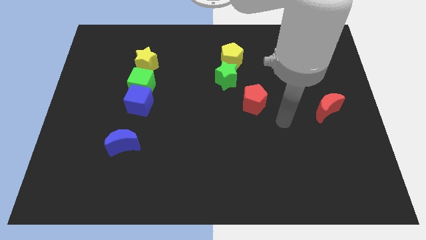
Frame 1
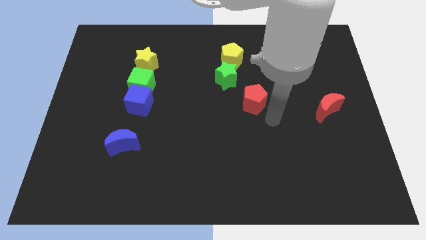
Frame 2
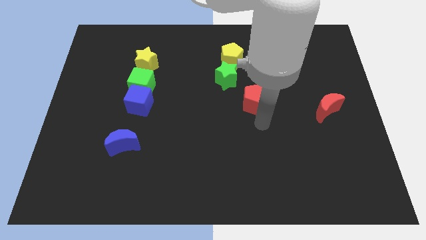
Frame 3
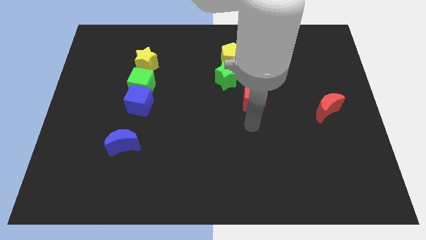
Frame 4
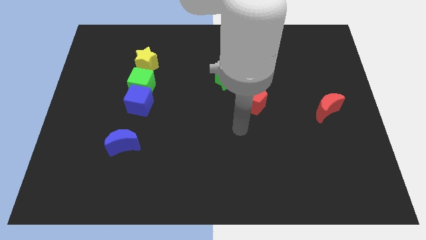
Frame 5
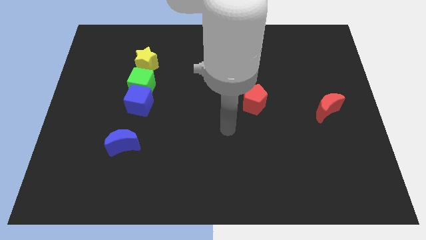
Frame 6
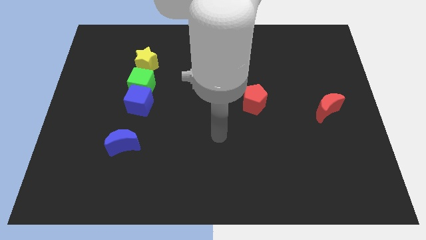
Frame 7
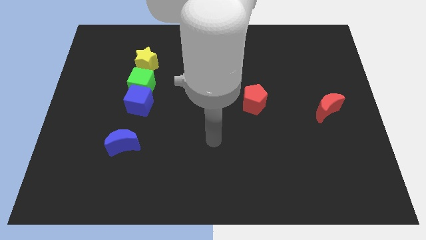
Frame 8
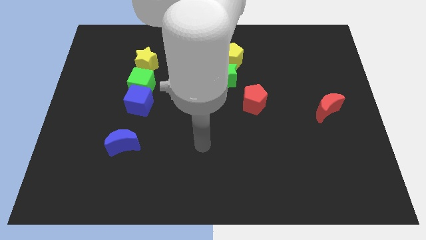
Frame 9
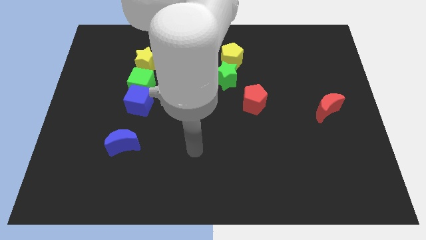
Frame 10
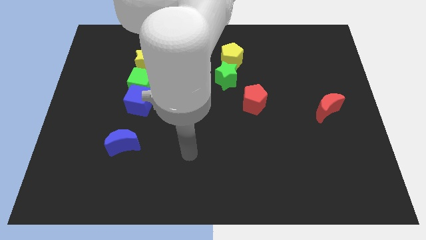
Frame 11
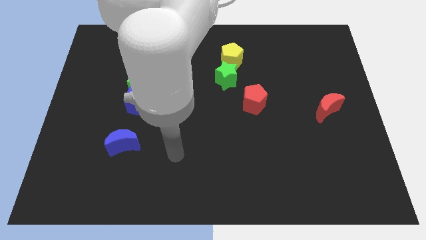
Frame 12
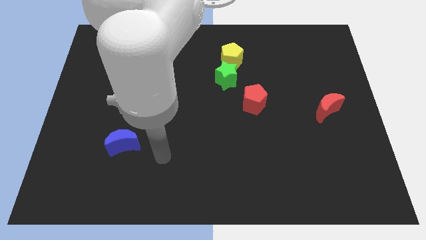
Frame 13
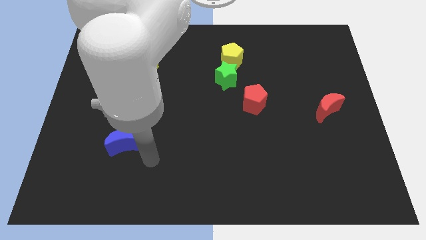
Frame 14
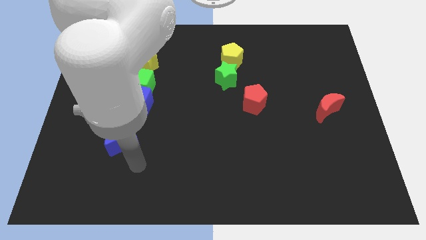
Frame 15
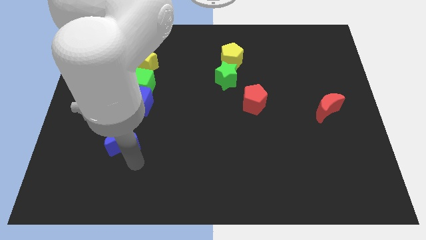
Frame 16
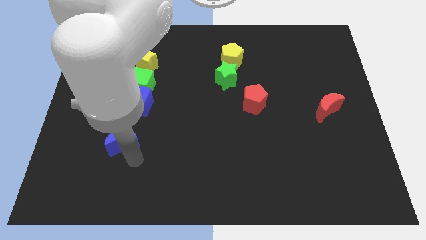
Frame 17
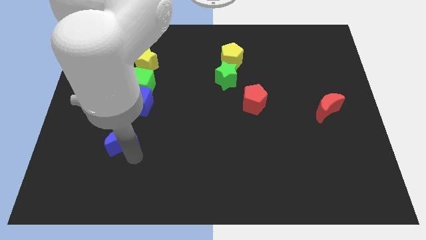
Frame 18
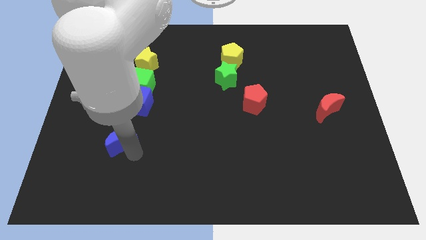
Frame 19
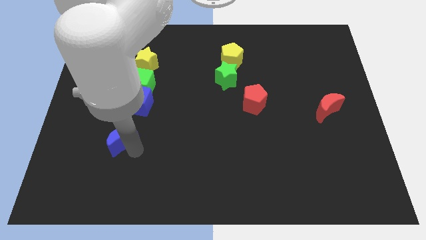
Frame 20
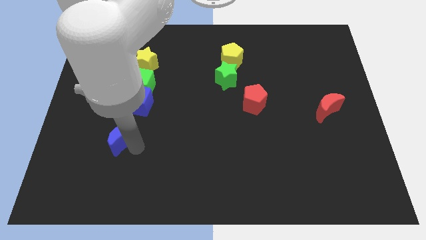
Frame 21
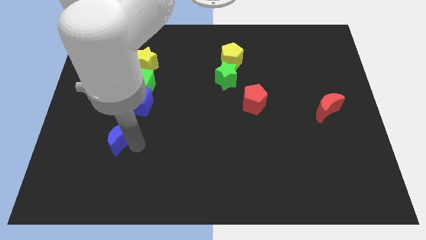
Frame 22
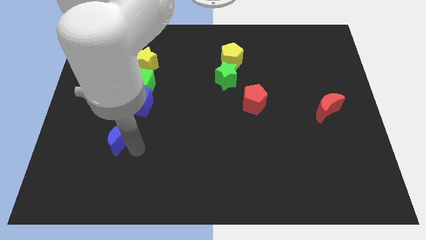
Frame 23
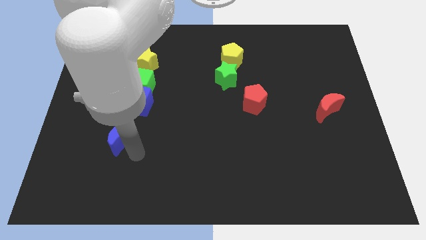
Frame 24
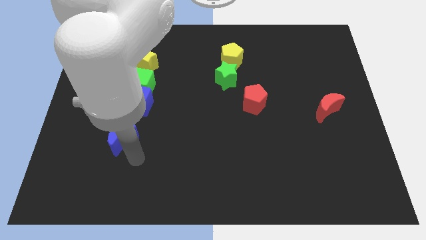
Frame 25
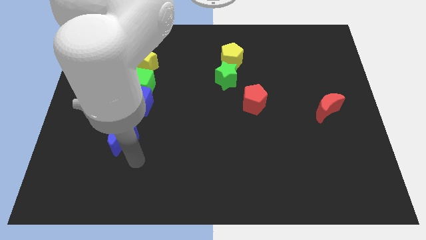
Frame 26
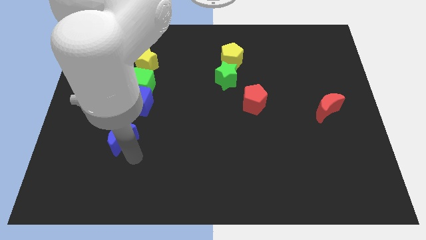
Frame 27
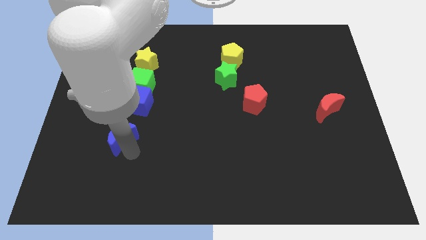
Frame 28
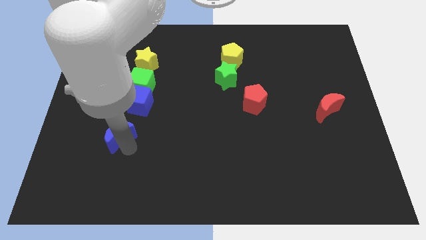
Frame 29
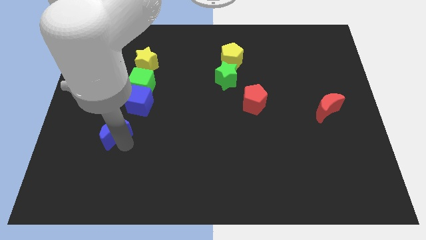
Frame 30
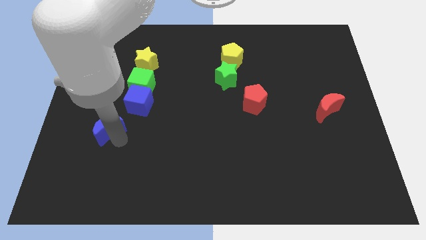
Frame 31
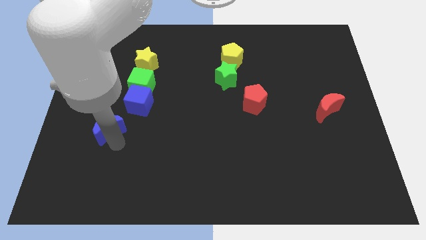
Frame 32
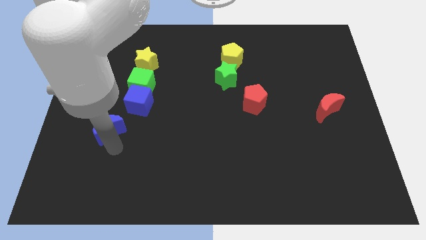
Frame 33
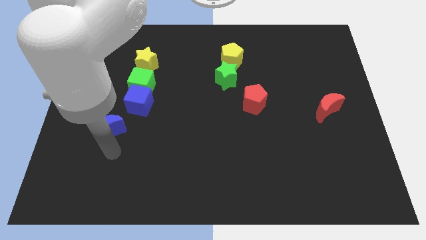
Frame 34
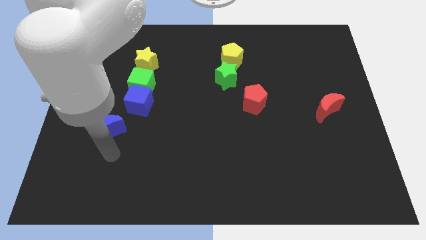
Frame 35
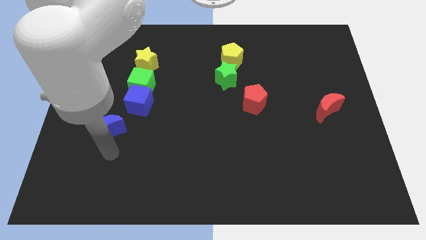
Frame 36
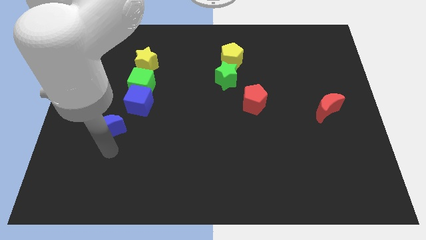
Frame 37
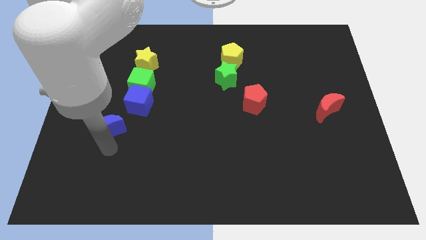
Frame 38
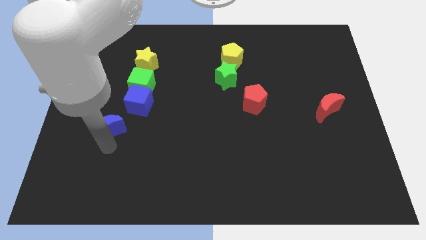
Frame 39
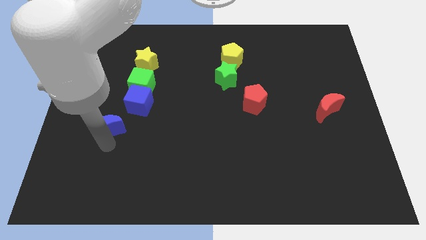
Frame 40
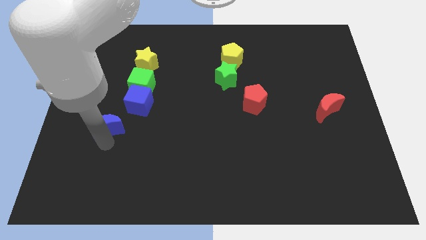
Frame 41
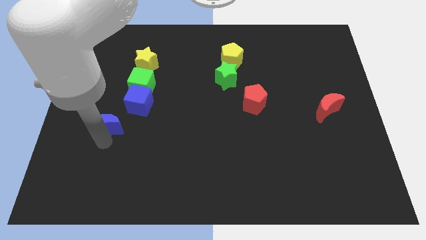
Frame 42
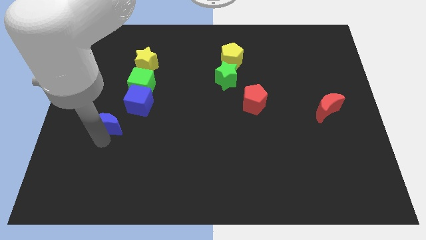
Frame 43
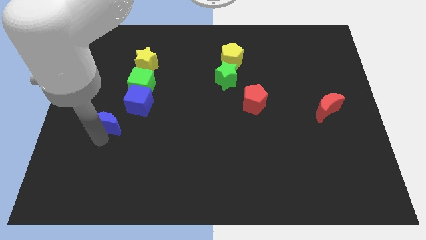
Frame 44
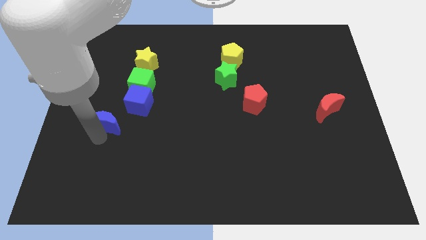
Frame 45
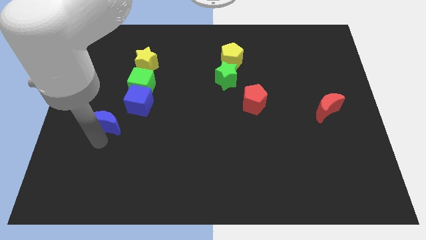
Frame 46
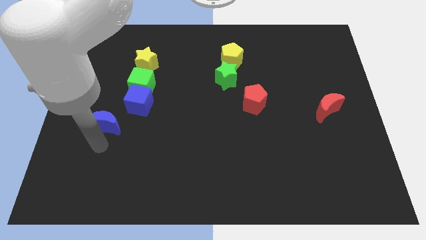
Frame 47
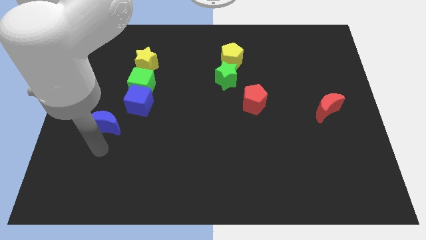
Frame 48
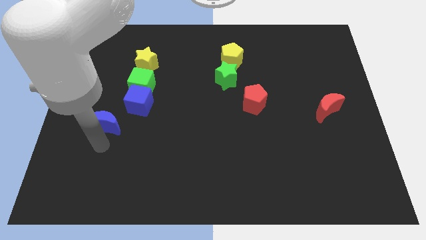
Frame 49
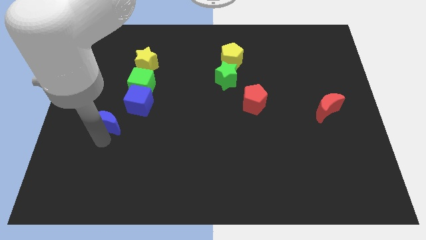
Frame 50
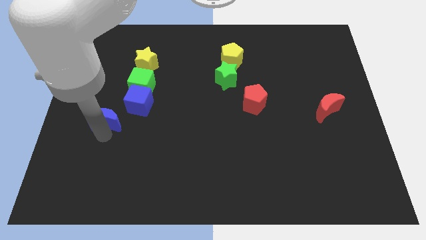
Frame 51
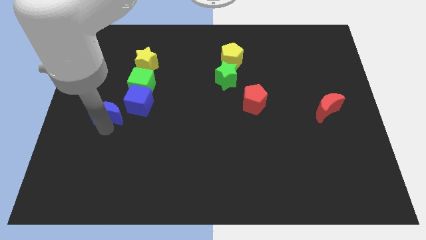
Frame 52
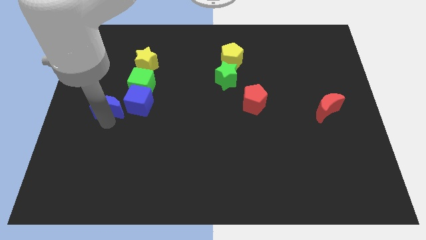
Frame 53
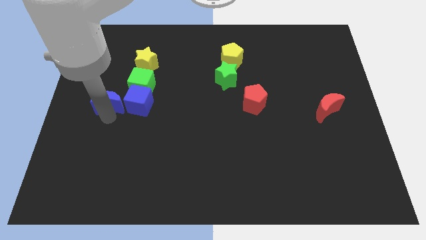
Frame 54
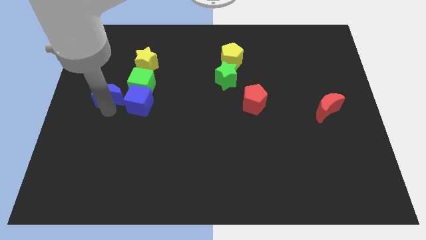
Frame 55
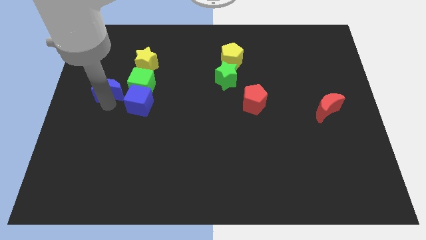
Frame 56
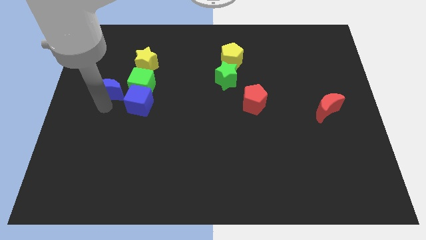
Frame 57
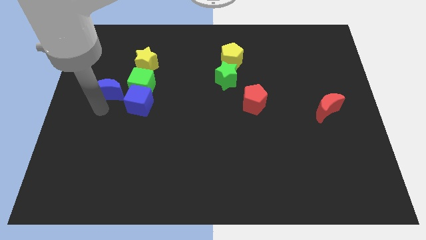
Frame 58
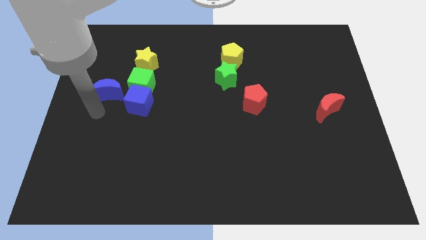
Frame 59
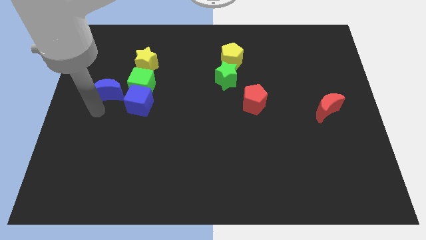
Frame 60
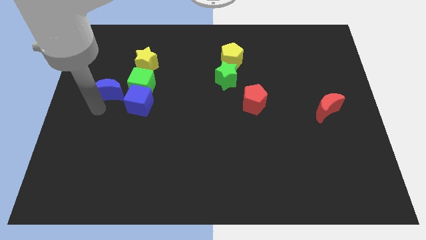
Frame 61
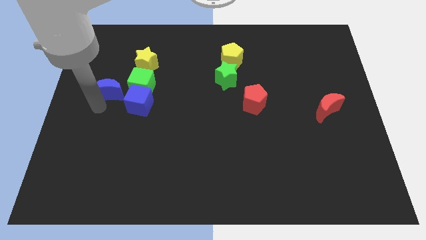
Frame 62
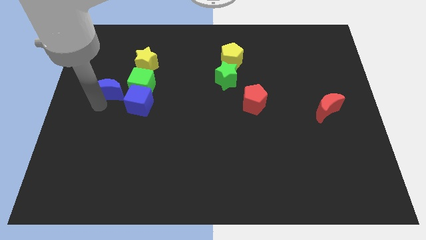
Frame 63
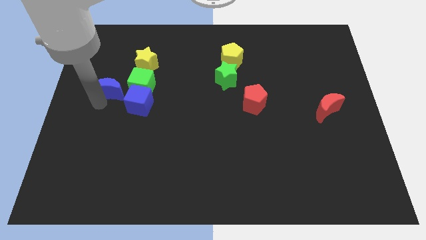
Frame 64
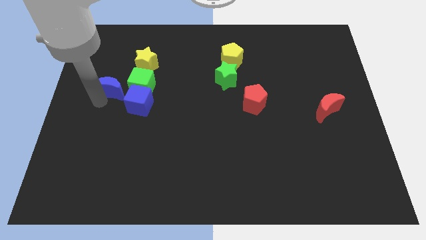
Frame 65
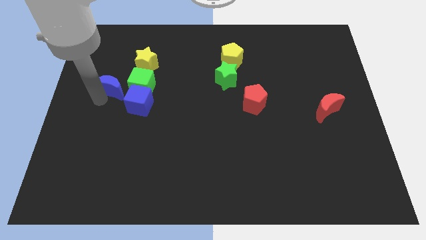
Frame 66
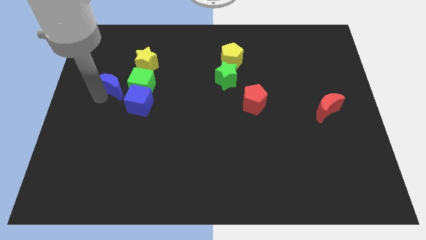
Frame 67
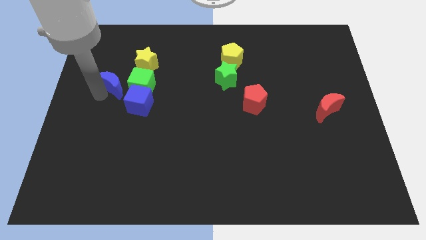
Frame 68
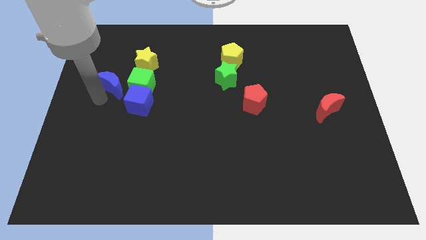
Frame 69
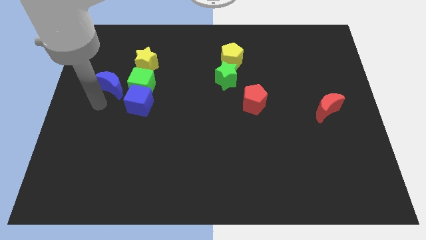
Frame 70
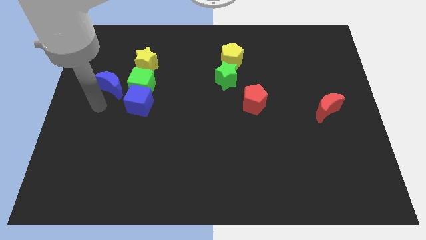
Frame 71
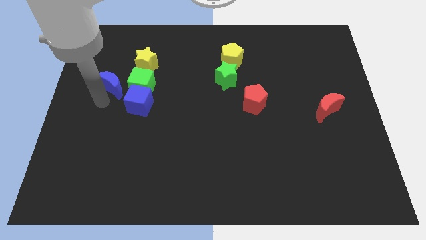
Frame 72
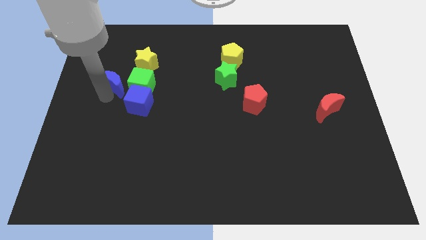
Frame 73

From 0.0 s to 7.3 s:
slide the blue moon to the top left of the green cube
